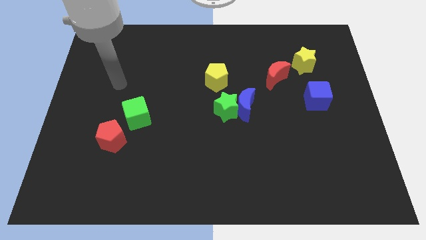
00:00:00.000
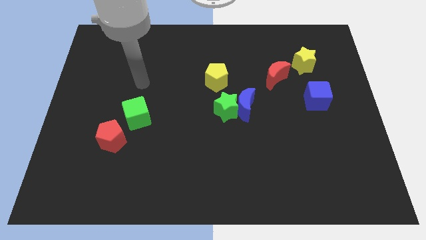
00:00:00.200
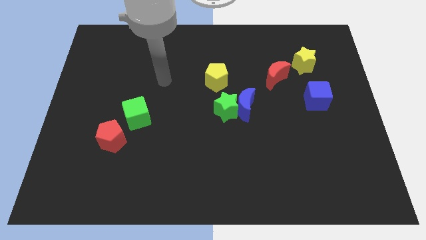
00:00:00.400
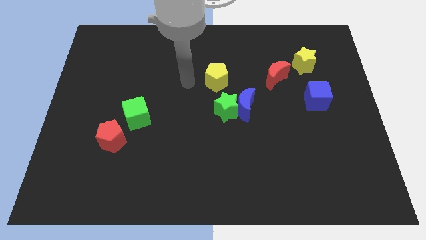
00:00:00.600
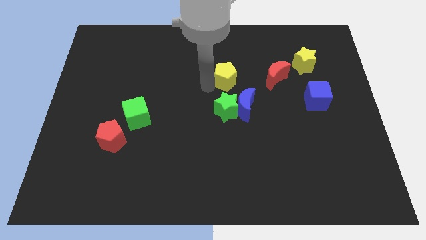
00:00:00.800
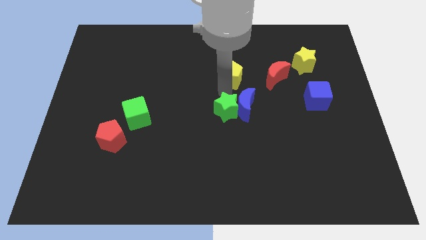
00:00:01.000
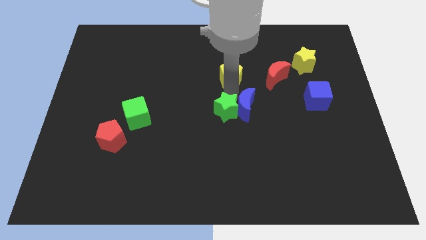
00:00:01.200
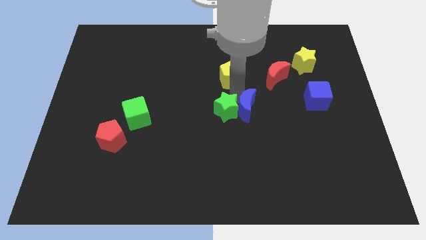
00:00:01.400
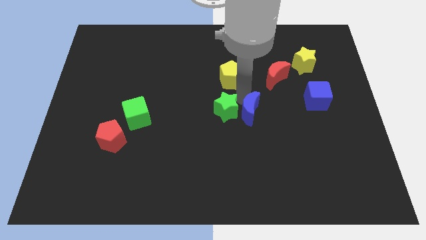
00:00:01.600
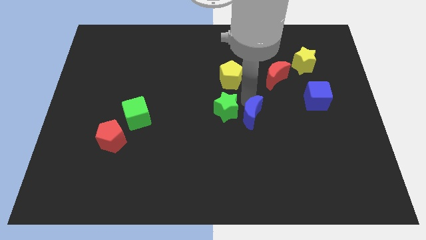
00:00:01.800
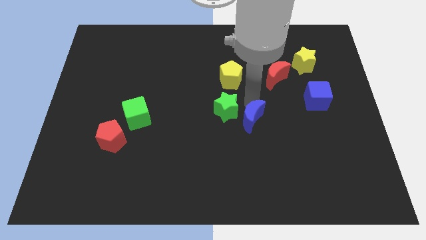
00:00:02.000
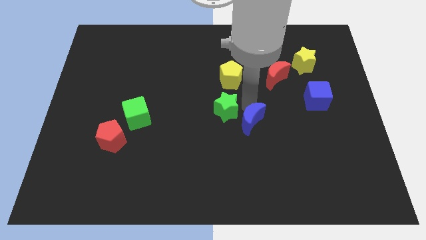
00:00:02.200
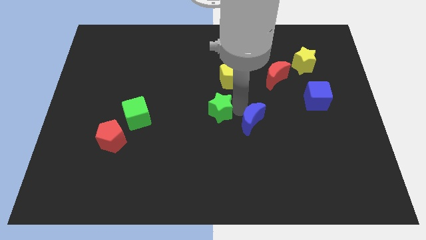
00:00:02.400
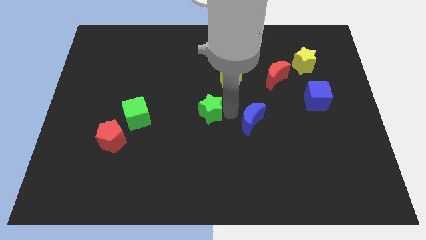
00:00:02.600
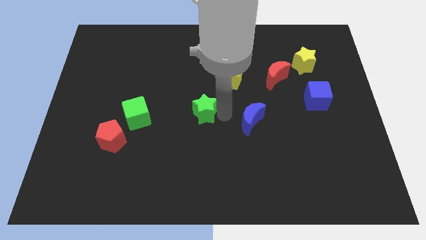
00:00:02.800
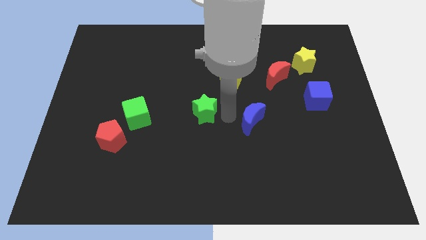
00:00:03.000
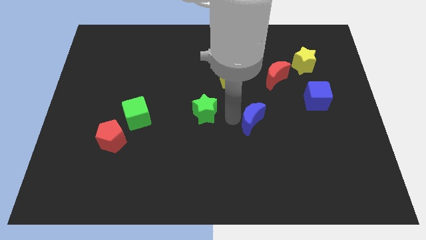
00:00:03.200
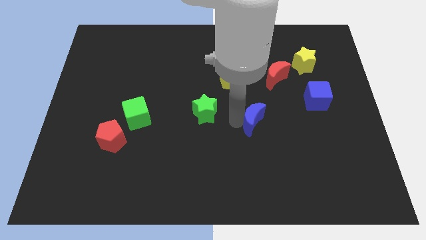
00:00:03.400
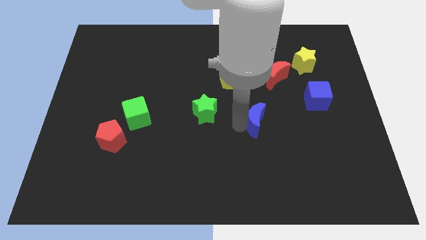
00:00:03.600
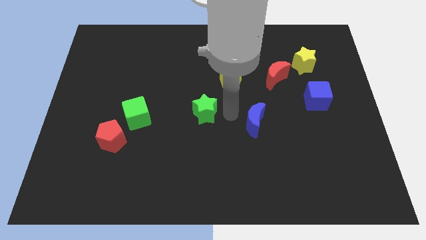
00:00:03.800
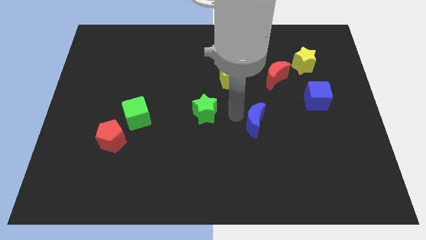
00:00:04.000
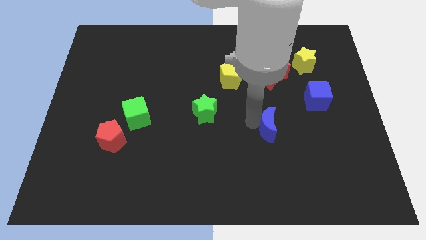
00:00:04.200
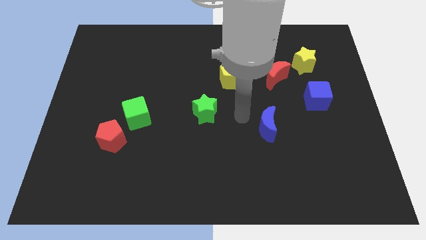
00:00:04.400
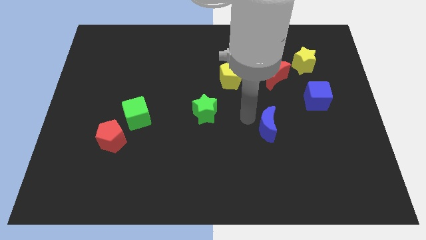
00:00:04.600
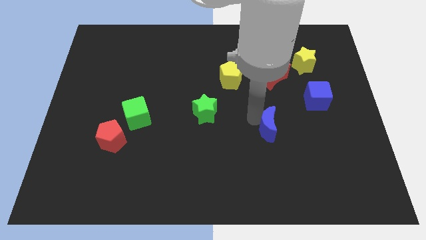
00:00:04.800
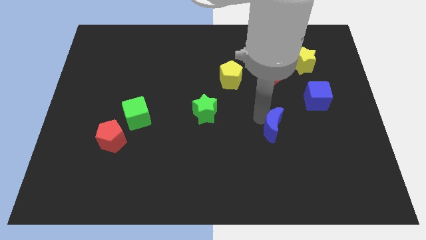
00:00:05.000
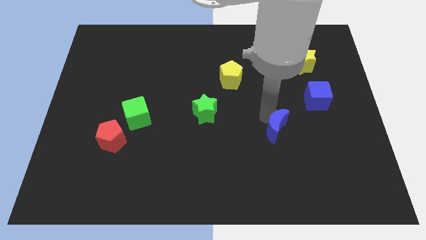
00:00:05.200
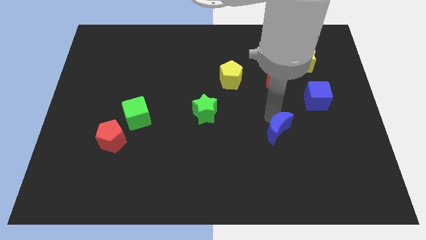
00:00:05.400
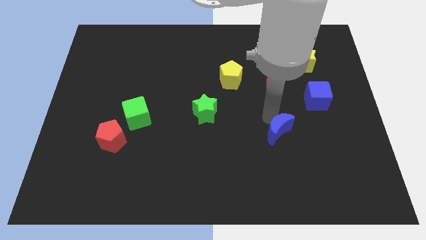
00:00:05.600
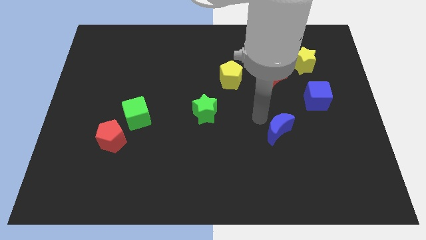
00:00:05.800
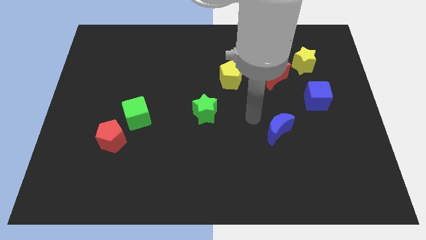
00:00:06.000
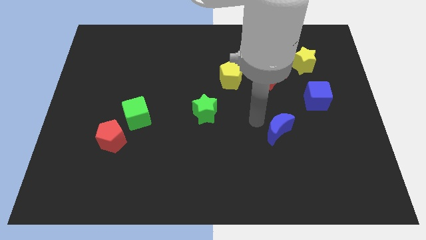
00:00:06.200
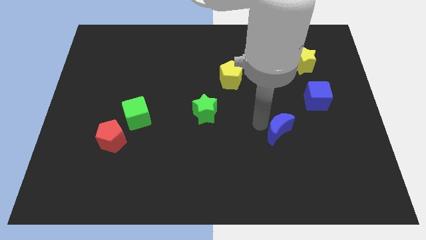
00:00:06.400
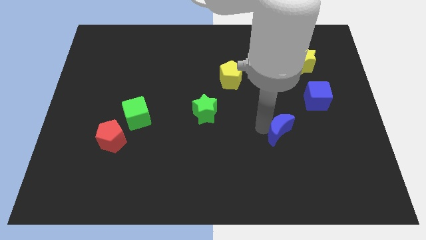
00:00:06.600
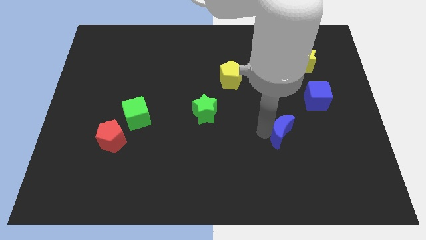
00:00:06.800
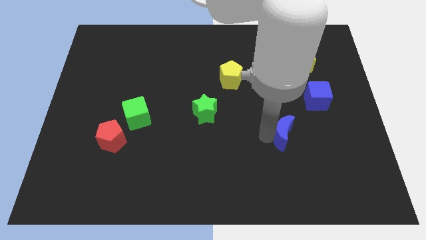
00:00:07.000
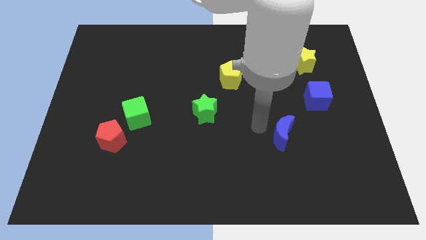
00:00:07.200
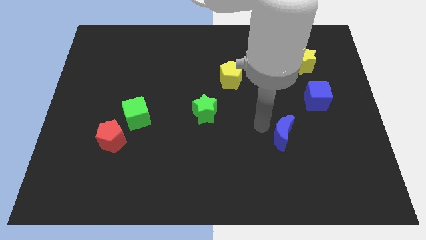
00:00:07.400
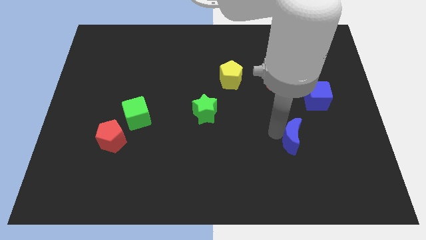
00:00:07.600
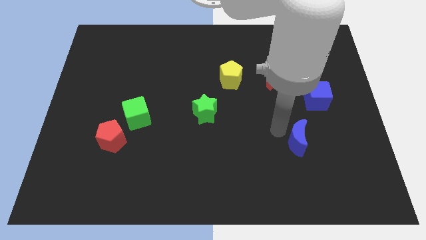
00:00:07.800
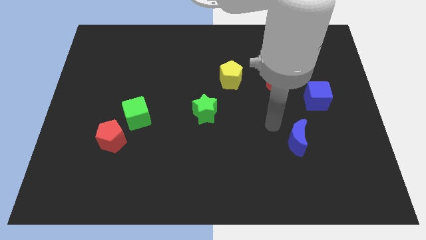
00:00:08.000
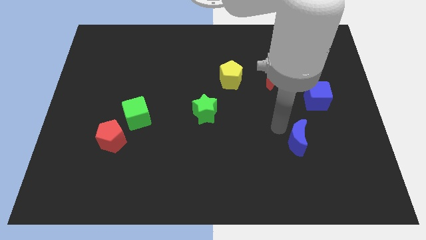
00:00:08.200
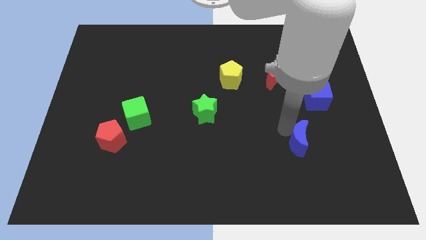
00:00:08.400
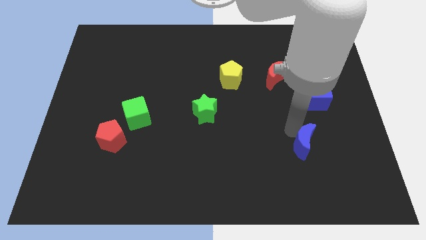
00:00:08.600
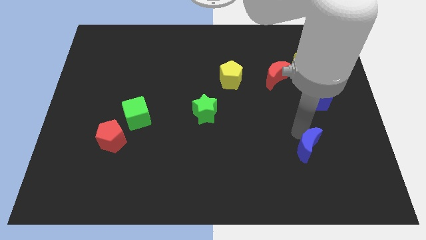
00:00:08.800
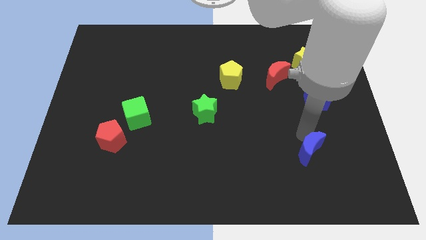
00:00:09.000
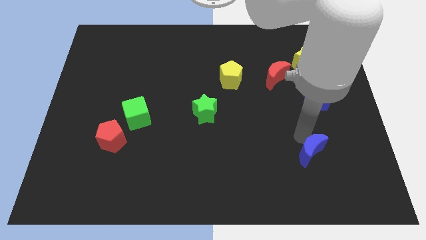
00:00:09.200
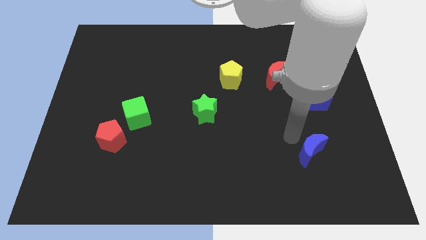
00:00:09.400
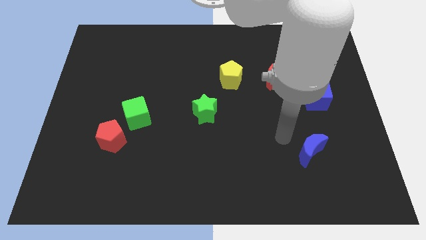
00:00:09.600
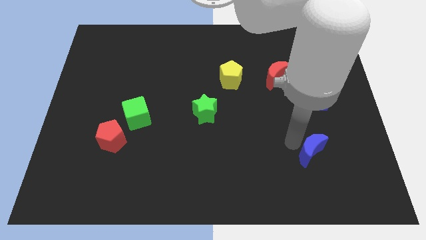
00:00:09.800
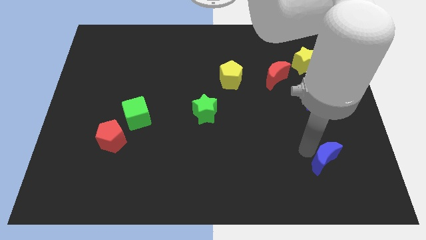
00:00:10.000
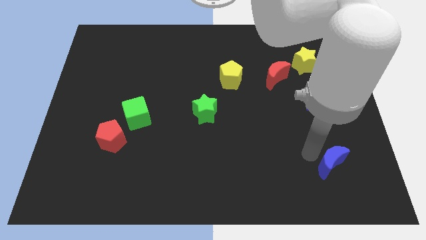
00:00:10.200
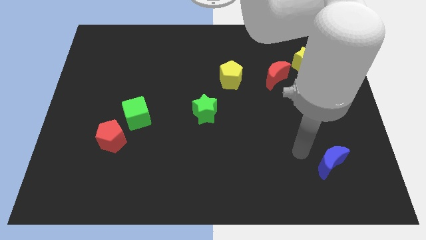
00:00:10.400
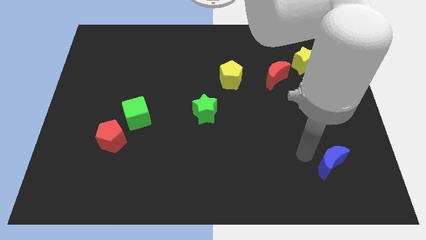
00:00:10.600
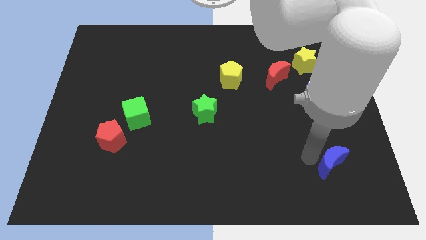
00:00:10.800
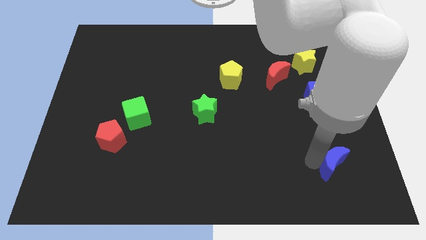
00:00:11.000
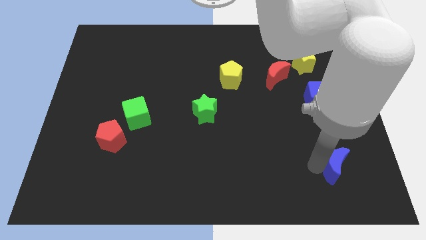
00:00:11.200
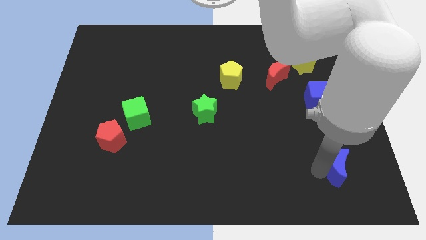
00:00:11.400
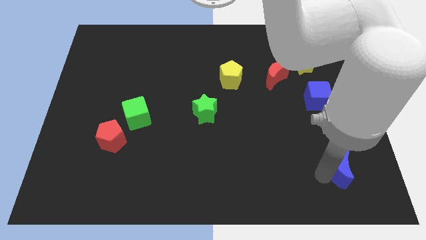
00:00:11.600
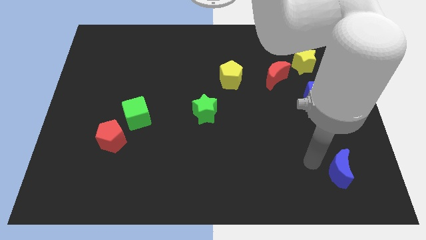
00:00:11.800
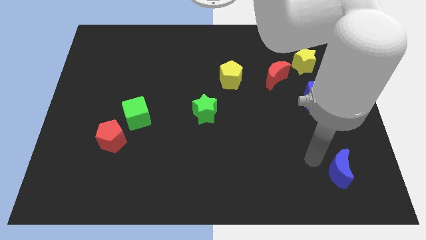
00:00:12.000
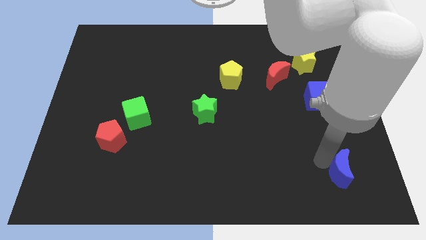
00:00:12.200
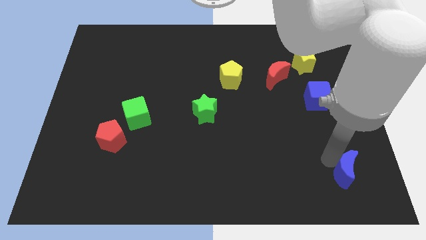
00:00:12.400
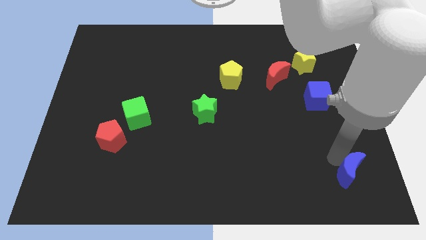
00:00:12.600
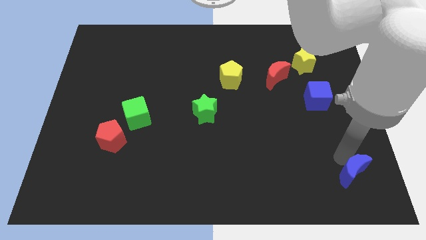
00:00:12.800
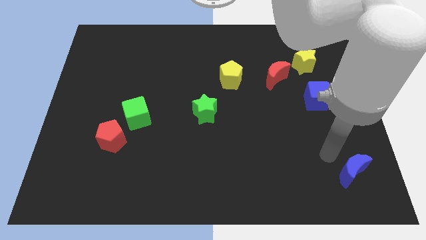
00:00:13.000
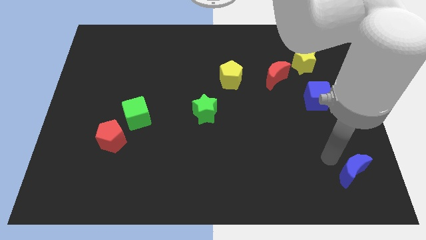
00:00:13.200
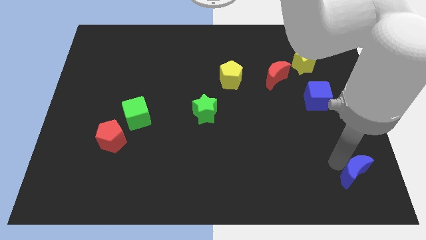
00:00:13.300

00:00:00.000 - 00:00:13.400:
put the blue moon to the bottom right of the board
